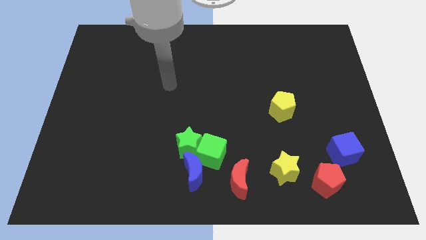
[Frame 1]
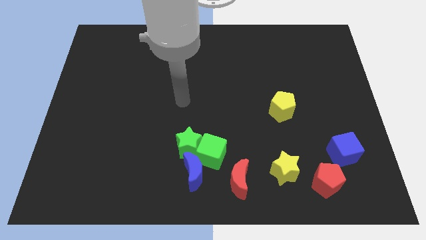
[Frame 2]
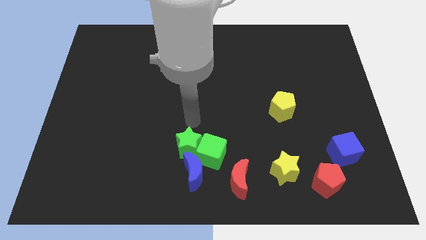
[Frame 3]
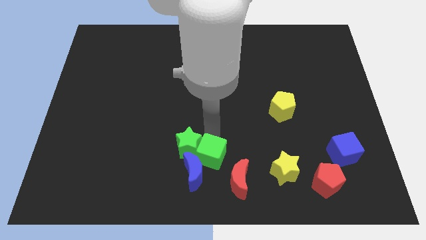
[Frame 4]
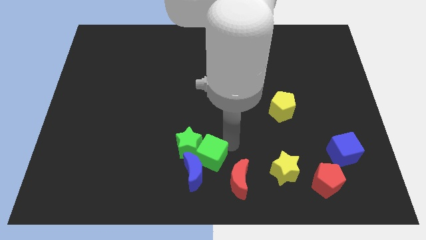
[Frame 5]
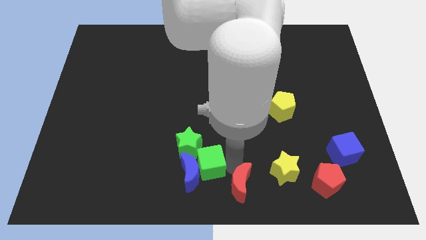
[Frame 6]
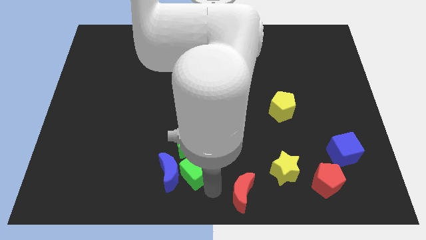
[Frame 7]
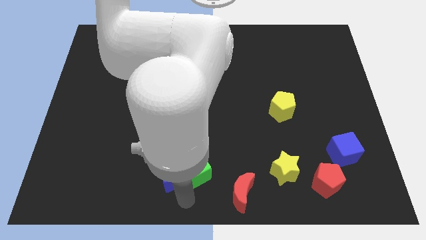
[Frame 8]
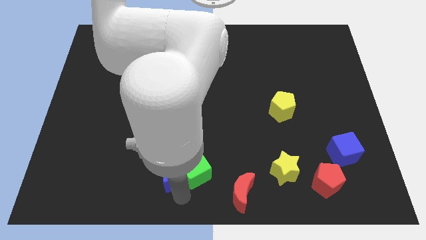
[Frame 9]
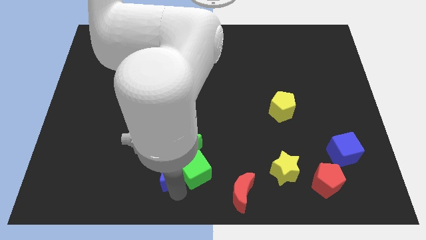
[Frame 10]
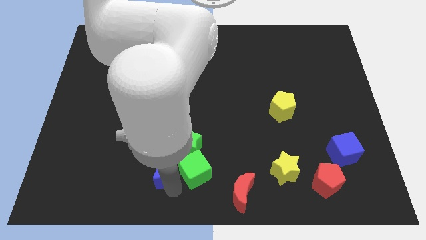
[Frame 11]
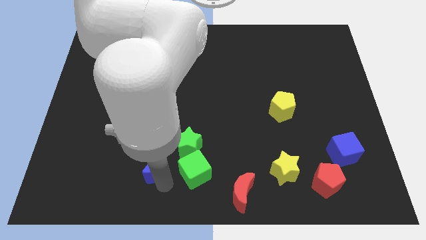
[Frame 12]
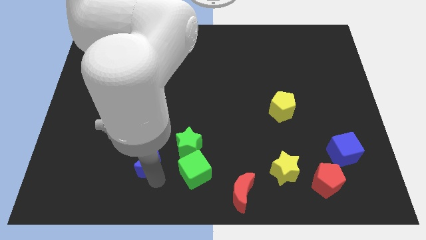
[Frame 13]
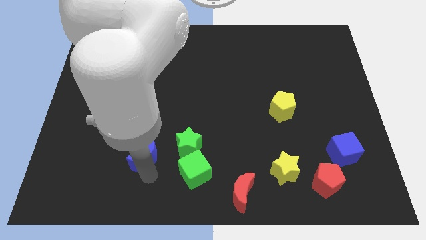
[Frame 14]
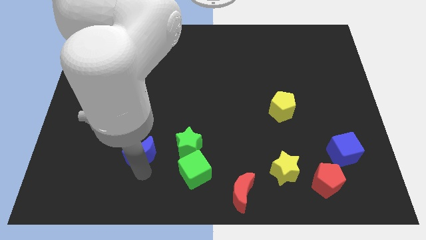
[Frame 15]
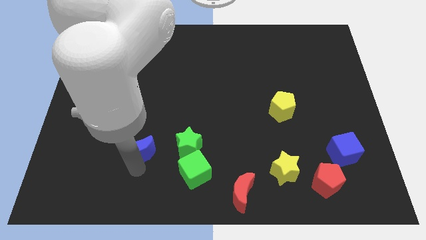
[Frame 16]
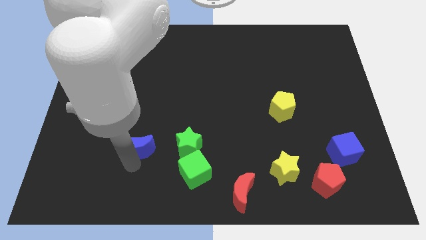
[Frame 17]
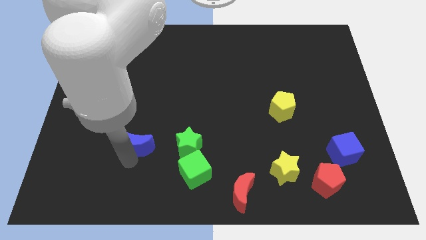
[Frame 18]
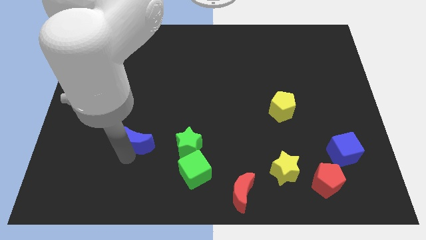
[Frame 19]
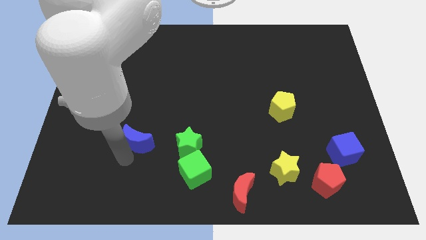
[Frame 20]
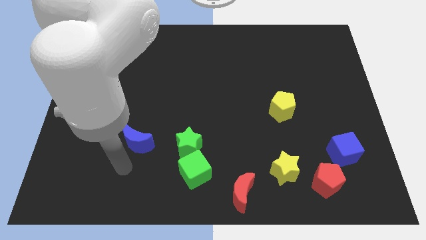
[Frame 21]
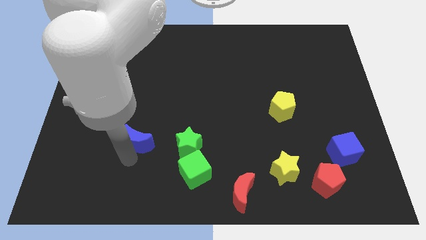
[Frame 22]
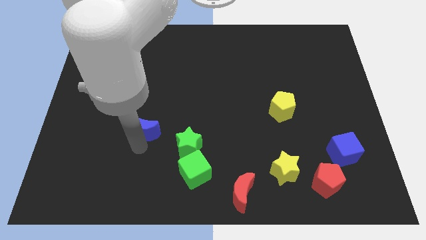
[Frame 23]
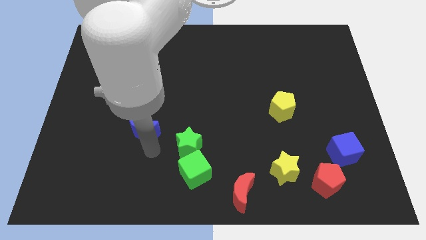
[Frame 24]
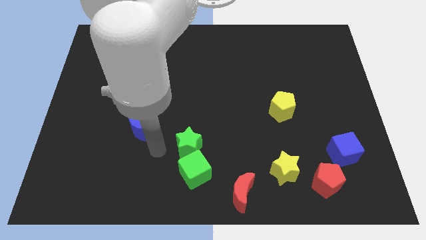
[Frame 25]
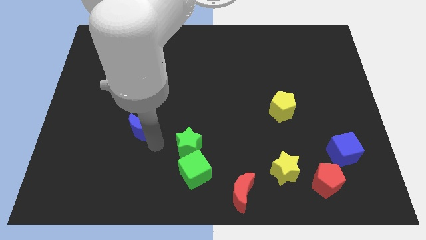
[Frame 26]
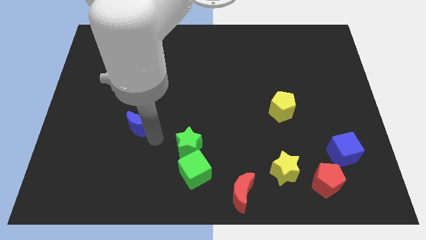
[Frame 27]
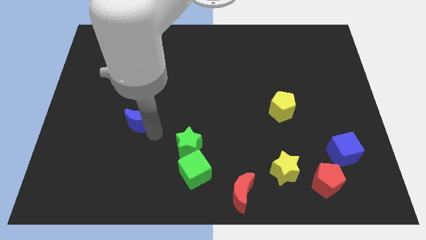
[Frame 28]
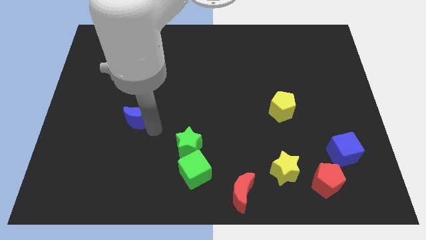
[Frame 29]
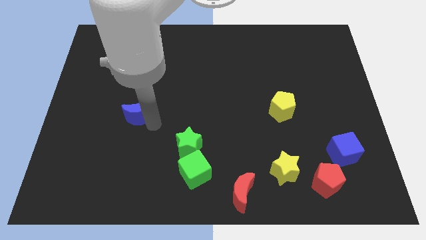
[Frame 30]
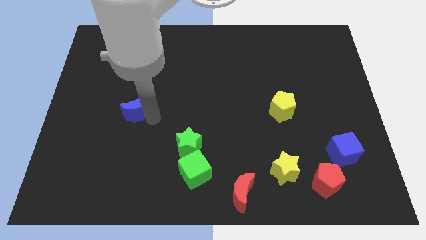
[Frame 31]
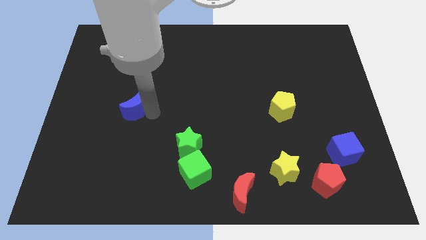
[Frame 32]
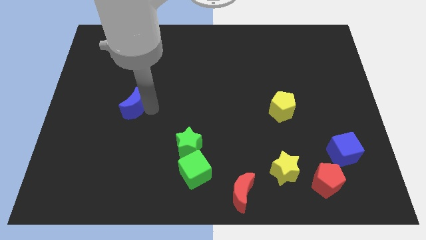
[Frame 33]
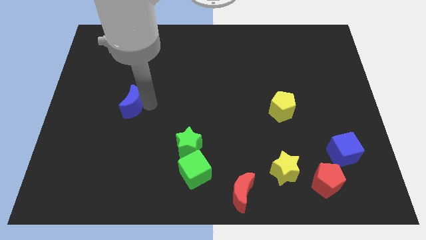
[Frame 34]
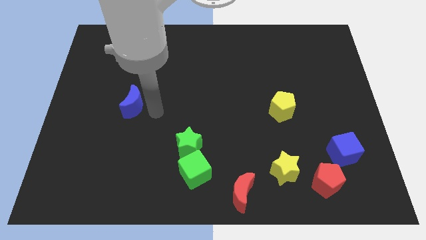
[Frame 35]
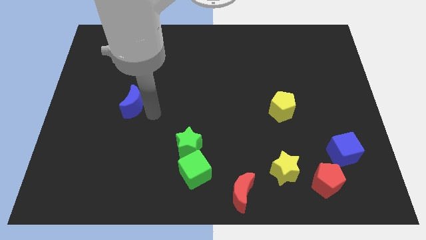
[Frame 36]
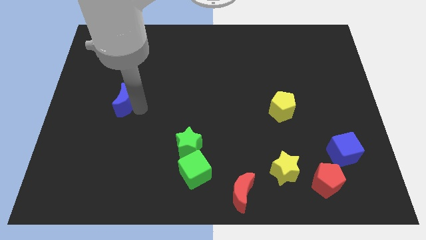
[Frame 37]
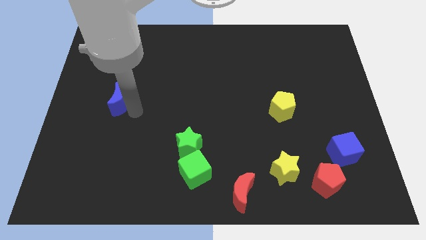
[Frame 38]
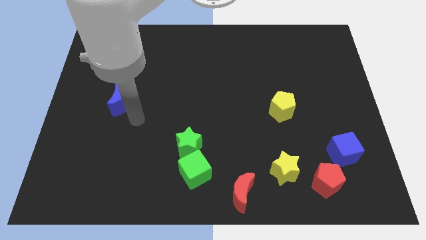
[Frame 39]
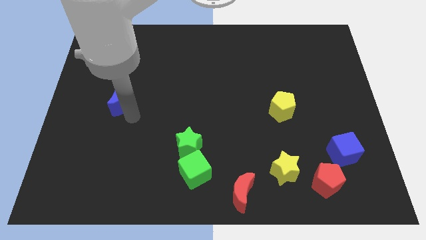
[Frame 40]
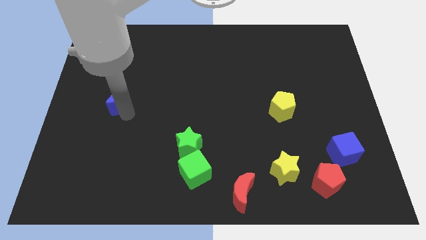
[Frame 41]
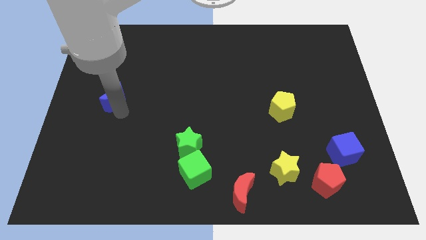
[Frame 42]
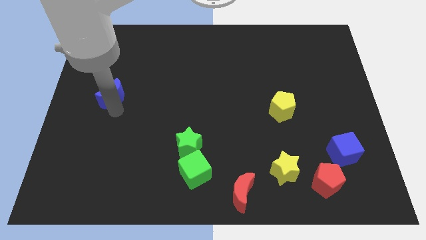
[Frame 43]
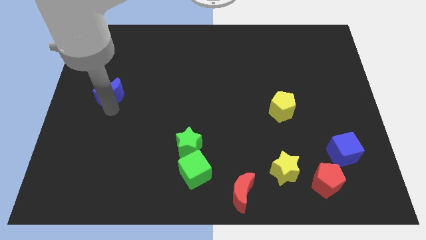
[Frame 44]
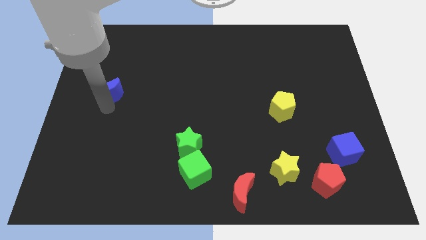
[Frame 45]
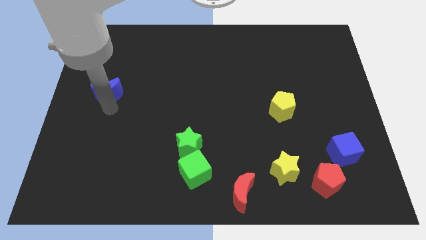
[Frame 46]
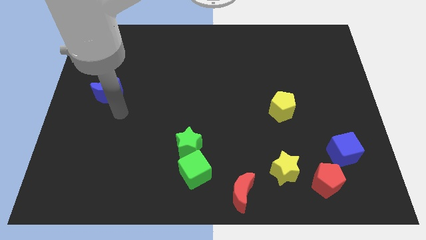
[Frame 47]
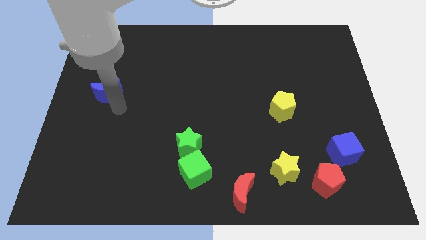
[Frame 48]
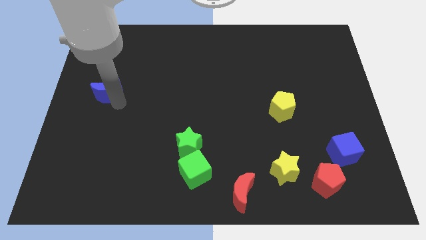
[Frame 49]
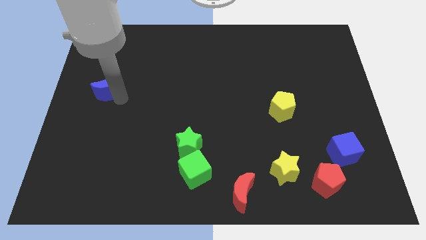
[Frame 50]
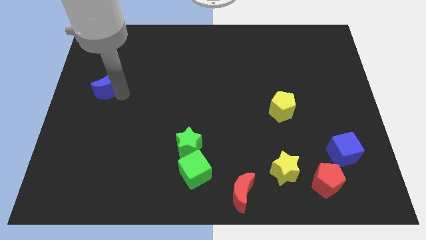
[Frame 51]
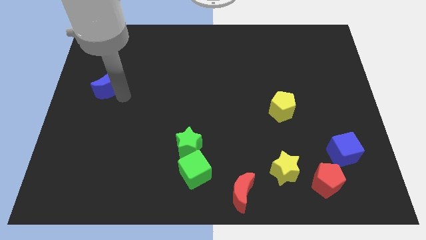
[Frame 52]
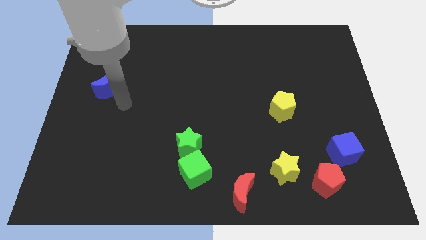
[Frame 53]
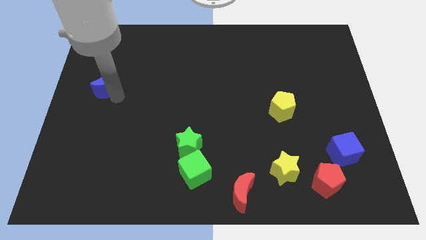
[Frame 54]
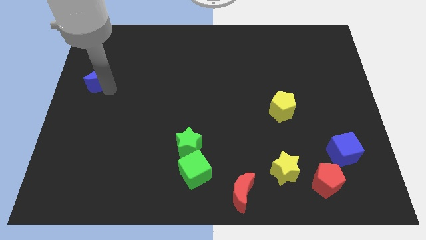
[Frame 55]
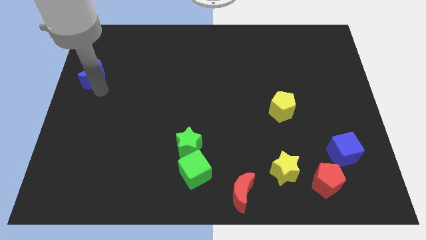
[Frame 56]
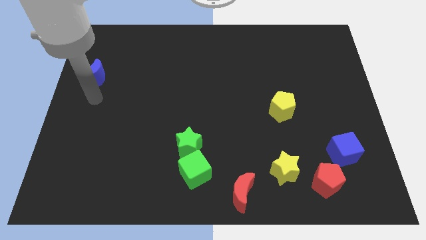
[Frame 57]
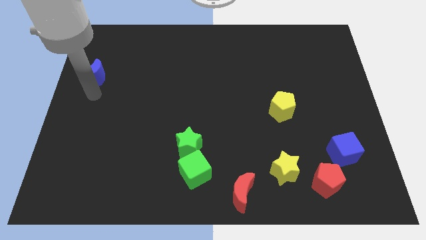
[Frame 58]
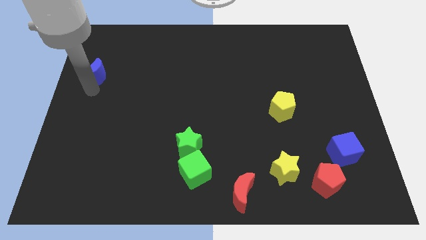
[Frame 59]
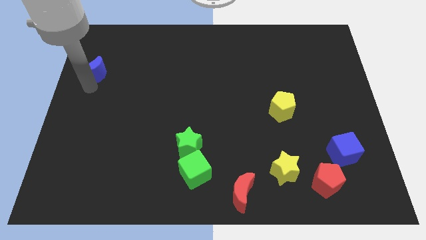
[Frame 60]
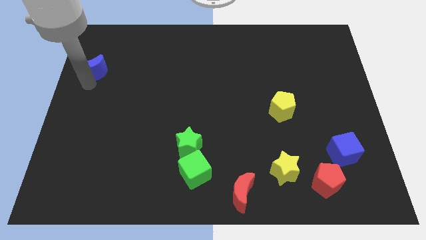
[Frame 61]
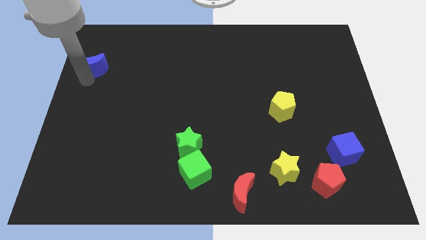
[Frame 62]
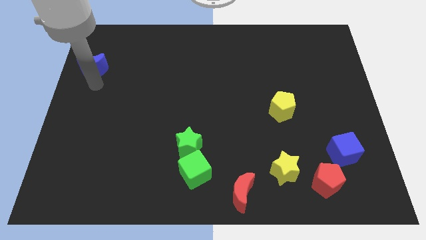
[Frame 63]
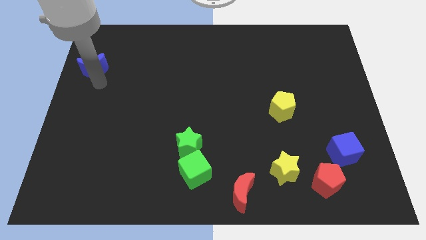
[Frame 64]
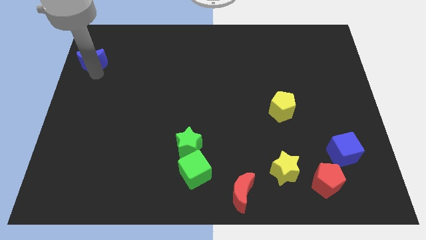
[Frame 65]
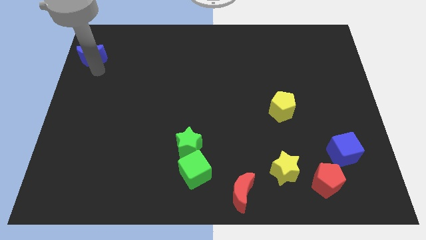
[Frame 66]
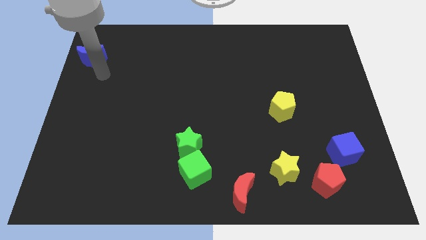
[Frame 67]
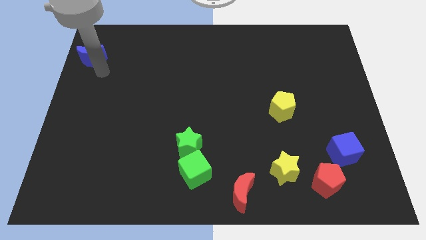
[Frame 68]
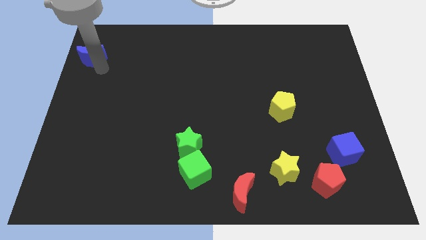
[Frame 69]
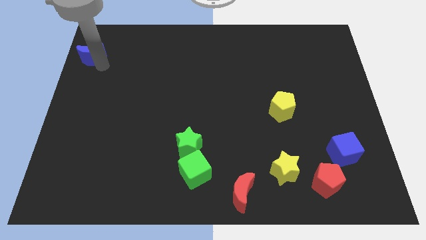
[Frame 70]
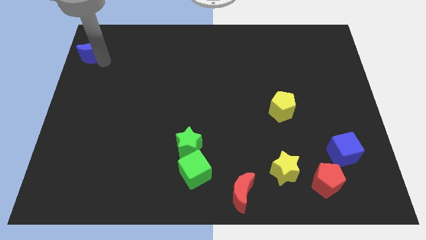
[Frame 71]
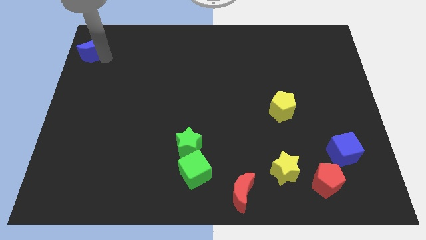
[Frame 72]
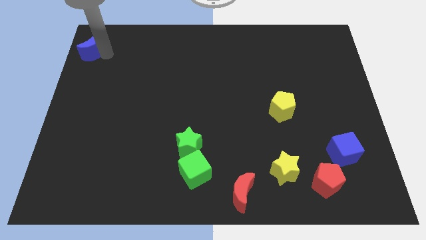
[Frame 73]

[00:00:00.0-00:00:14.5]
slide the blue moon to the top left
